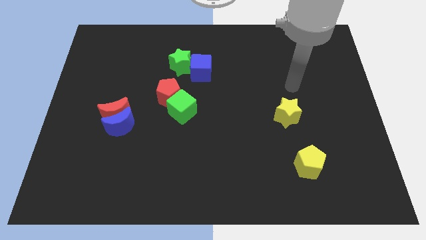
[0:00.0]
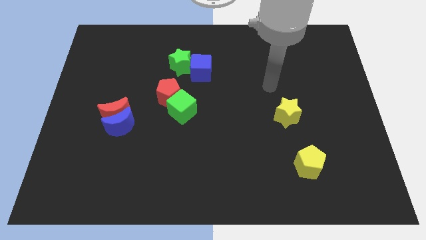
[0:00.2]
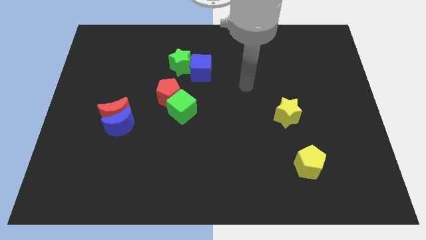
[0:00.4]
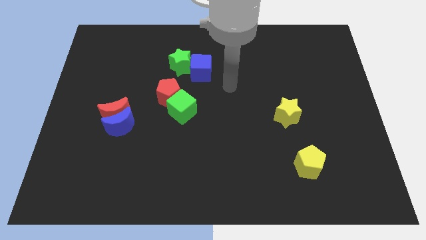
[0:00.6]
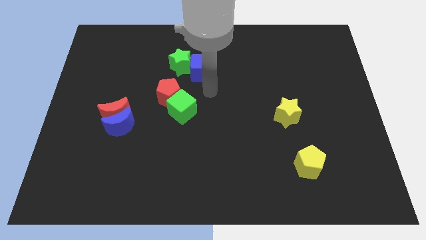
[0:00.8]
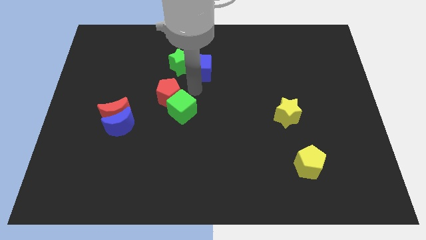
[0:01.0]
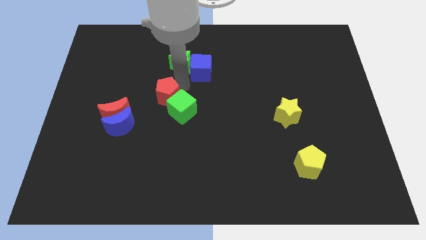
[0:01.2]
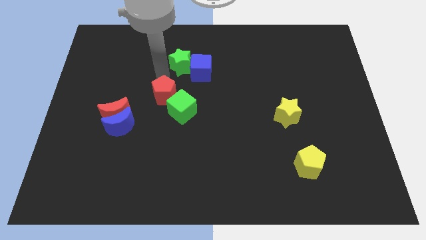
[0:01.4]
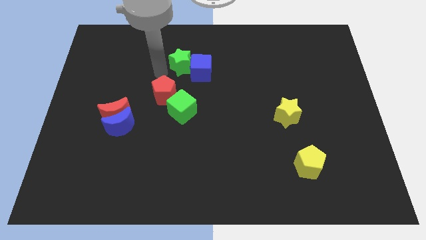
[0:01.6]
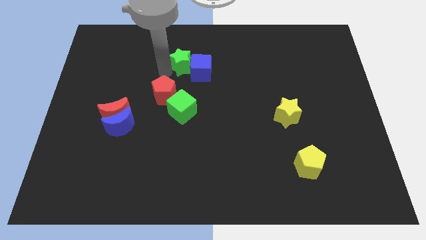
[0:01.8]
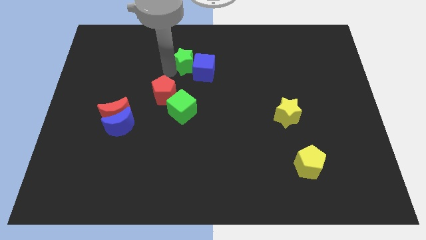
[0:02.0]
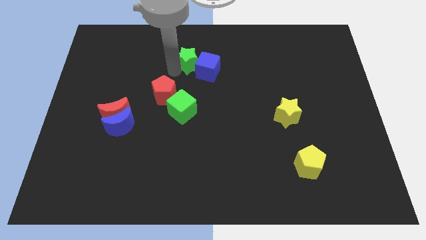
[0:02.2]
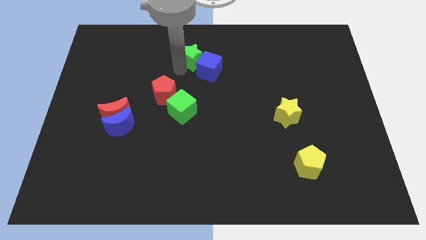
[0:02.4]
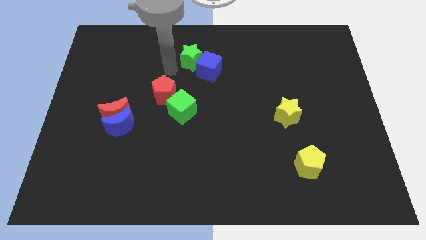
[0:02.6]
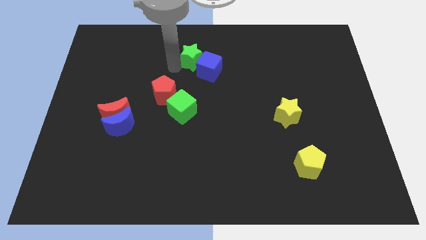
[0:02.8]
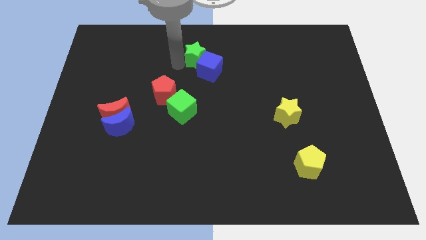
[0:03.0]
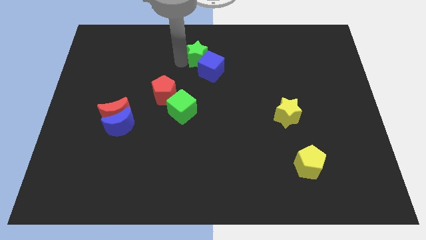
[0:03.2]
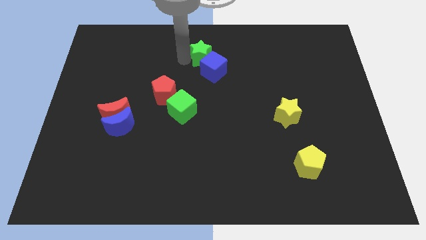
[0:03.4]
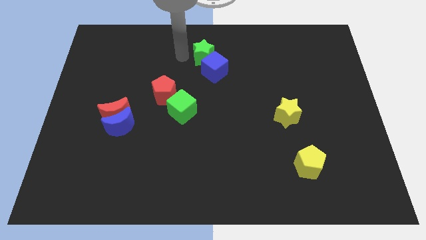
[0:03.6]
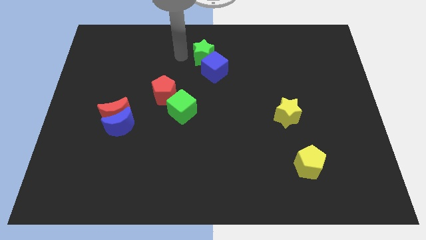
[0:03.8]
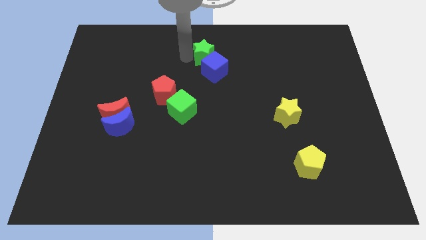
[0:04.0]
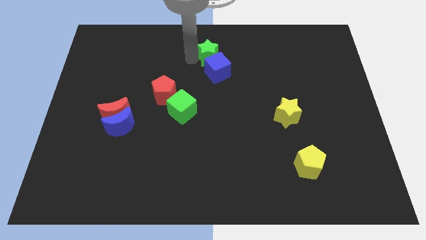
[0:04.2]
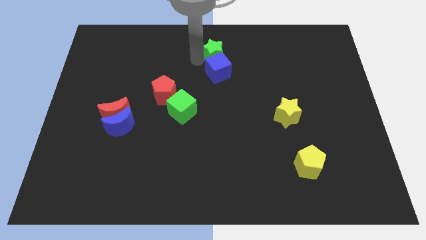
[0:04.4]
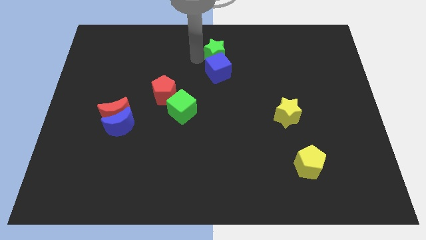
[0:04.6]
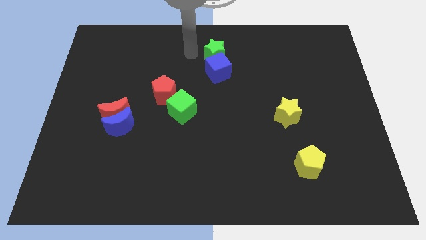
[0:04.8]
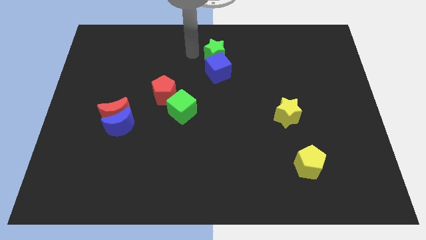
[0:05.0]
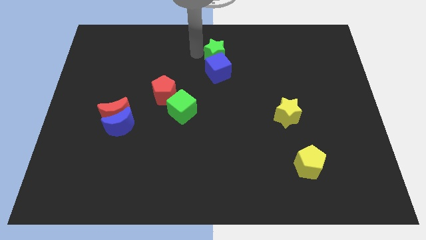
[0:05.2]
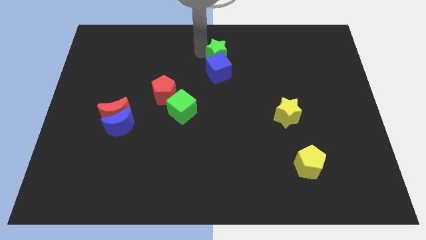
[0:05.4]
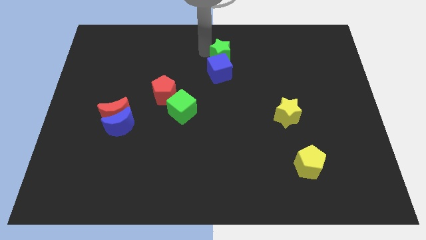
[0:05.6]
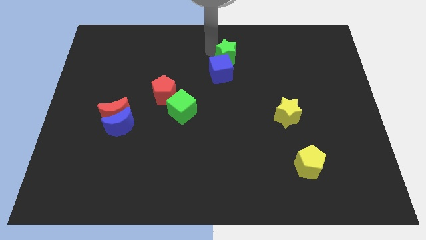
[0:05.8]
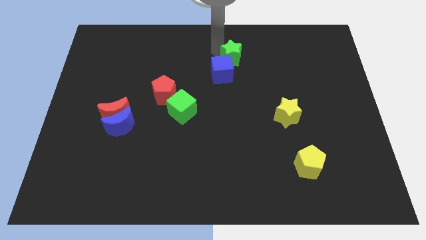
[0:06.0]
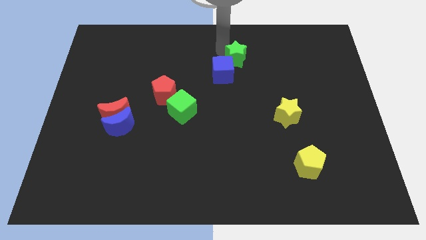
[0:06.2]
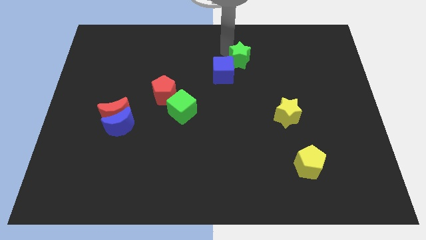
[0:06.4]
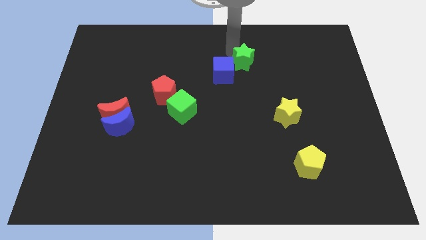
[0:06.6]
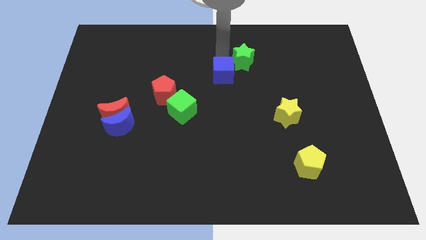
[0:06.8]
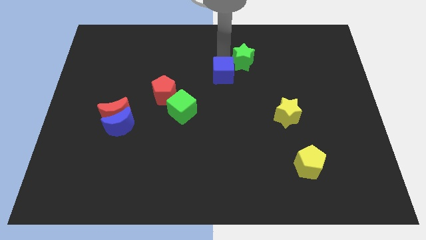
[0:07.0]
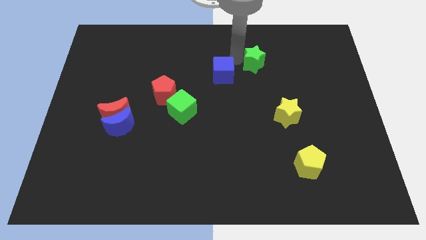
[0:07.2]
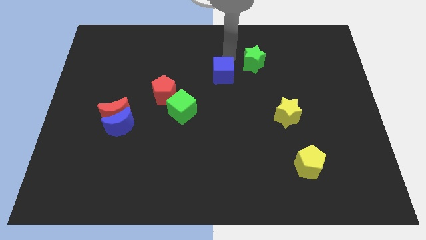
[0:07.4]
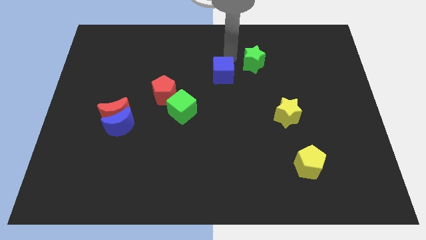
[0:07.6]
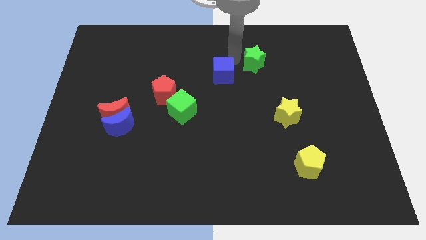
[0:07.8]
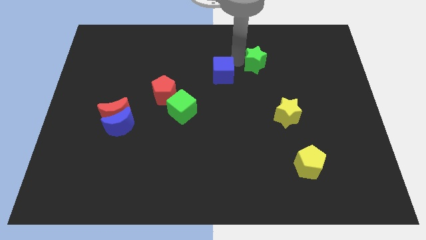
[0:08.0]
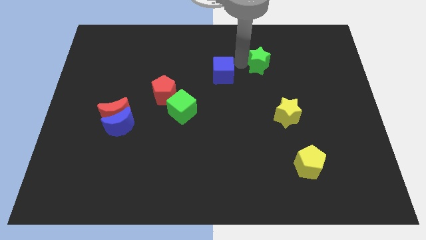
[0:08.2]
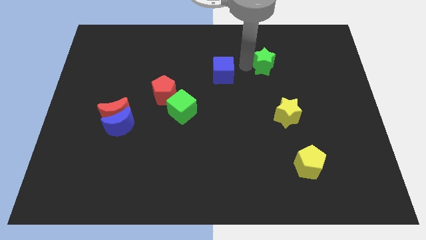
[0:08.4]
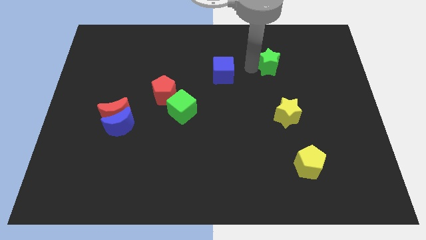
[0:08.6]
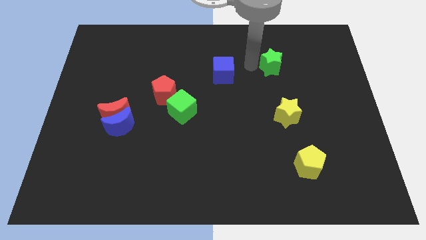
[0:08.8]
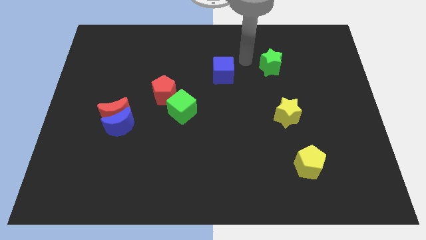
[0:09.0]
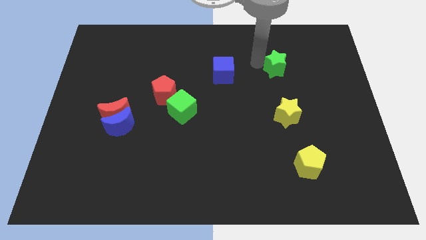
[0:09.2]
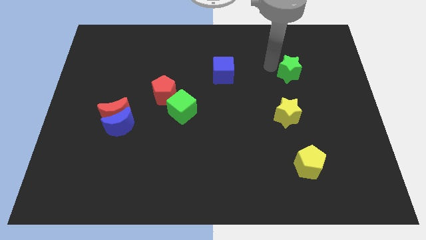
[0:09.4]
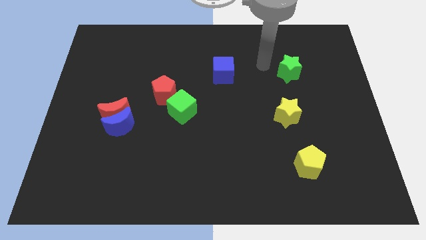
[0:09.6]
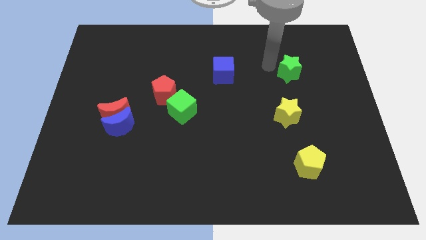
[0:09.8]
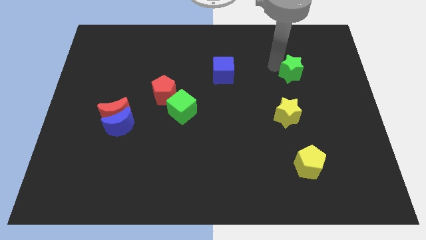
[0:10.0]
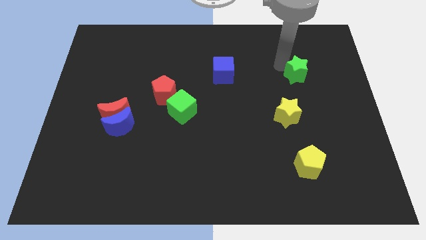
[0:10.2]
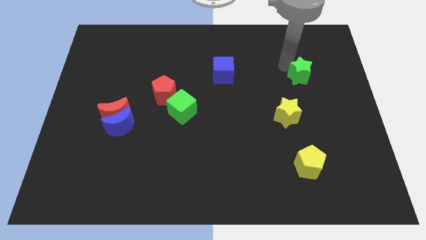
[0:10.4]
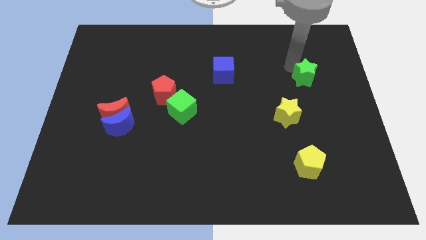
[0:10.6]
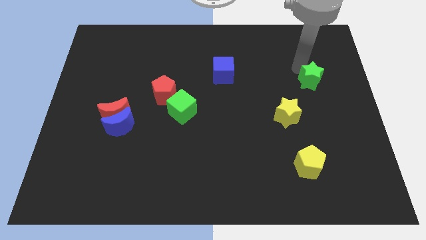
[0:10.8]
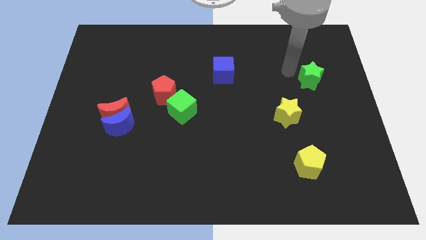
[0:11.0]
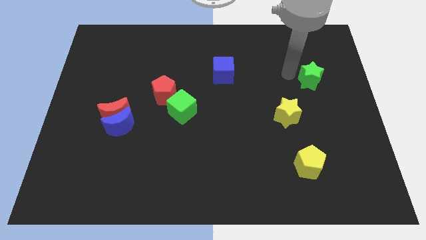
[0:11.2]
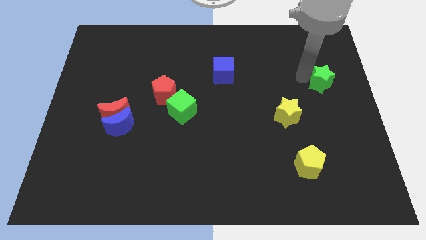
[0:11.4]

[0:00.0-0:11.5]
put the green star to the right side of the board

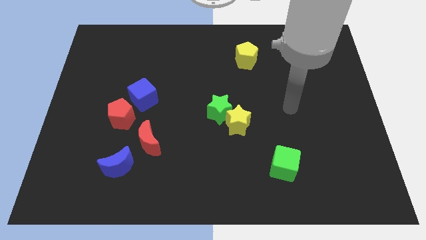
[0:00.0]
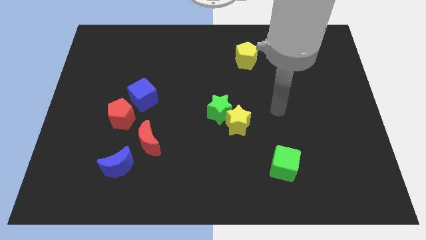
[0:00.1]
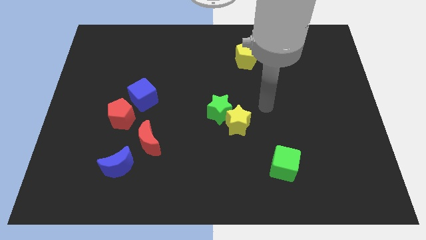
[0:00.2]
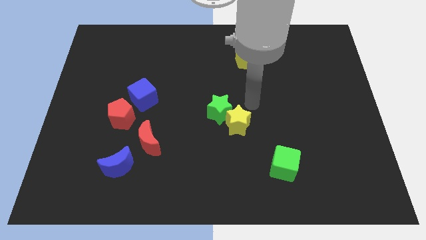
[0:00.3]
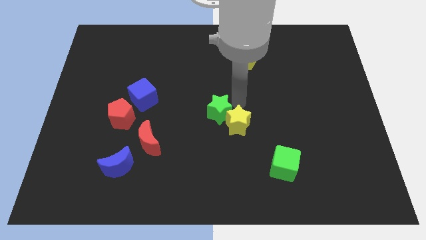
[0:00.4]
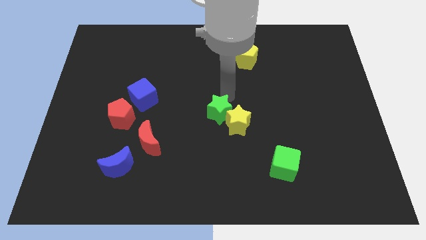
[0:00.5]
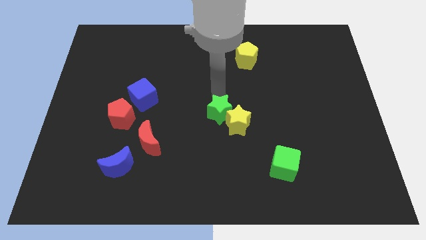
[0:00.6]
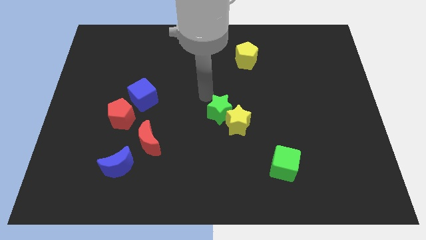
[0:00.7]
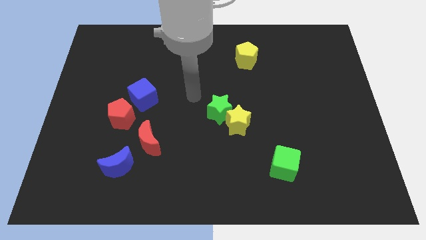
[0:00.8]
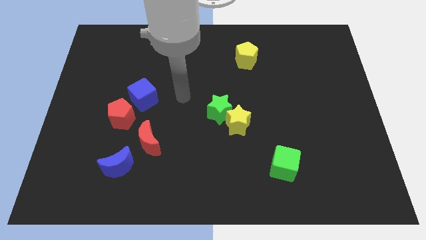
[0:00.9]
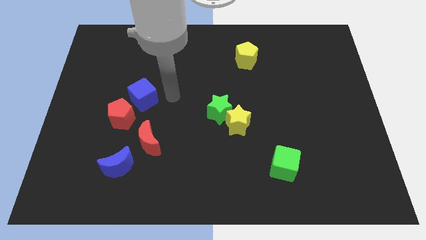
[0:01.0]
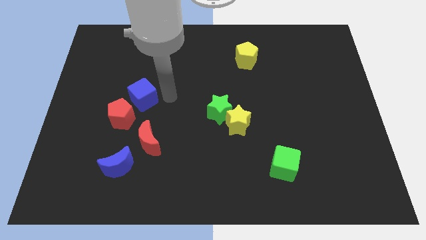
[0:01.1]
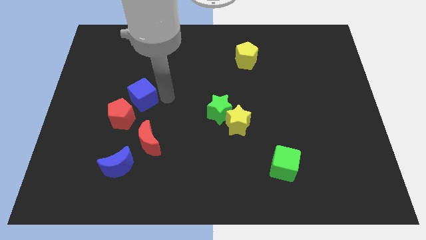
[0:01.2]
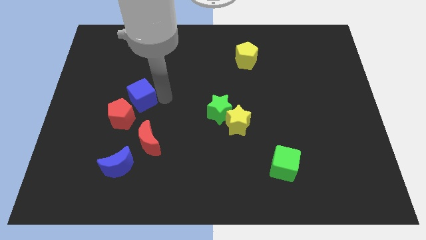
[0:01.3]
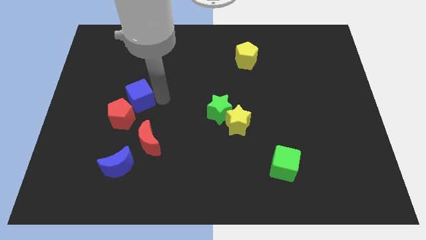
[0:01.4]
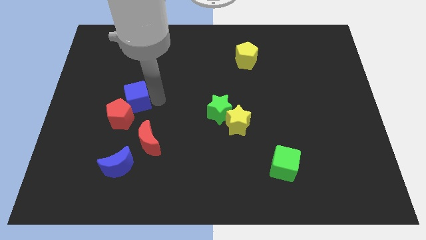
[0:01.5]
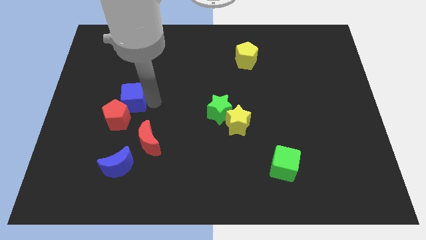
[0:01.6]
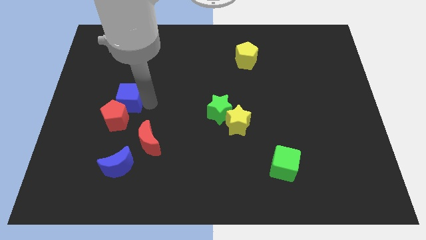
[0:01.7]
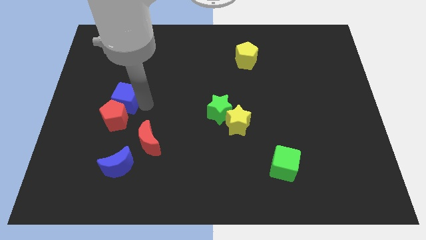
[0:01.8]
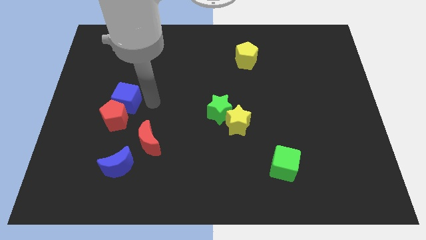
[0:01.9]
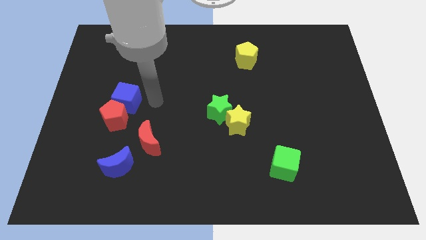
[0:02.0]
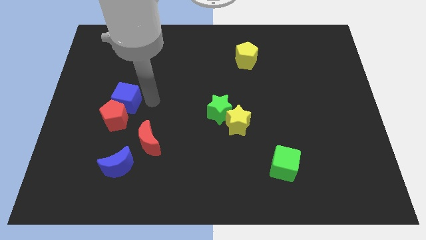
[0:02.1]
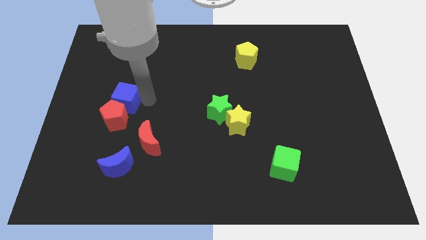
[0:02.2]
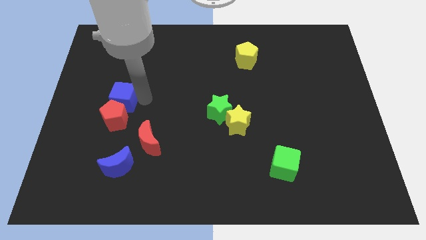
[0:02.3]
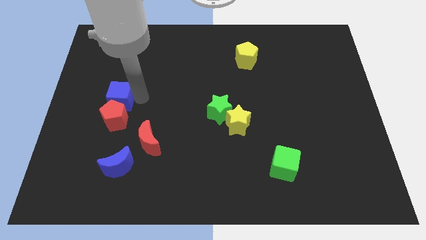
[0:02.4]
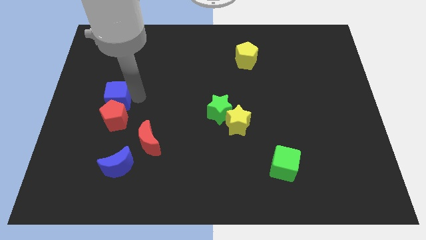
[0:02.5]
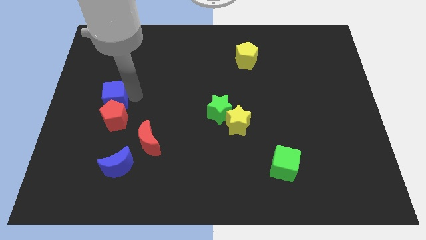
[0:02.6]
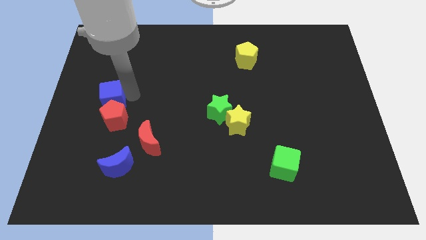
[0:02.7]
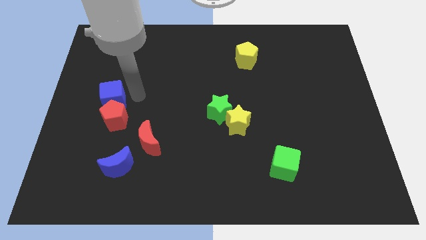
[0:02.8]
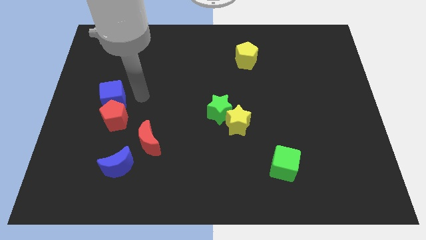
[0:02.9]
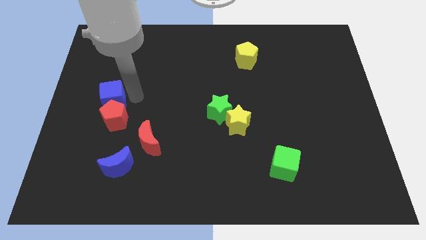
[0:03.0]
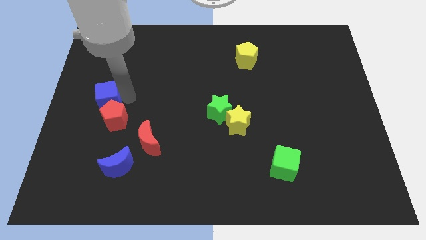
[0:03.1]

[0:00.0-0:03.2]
push the blue cube to the left side
